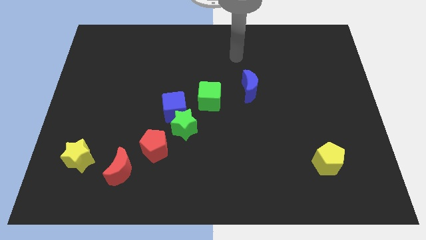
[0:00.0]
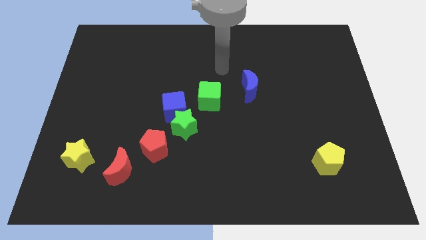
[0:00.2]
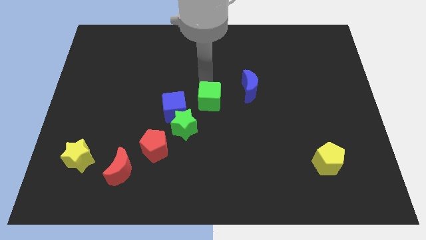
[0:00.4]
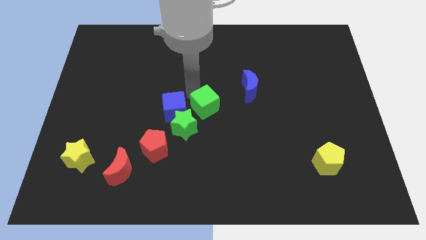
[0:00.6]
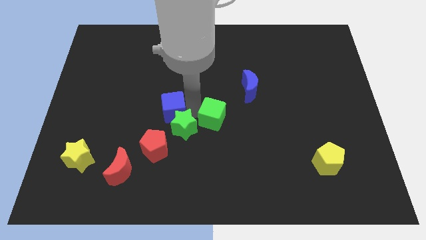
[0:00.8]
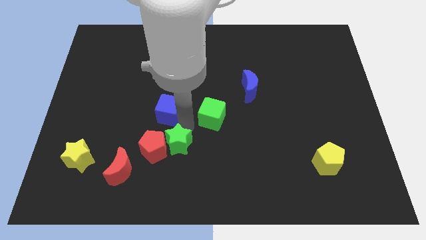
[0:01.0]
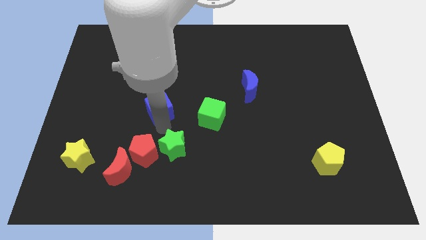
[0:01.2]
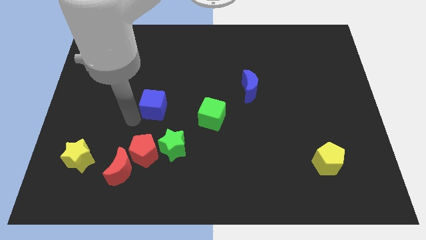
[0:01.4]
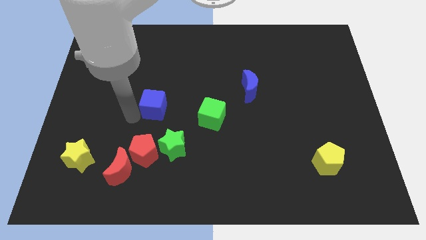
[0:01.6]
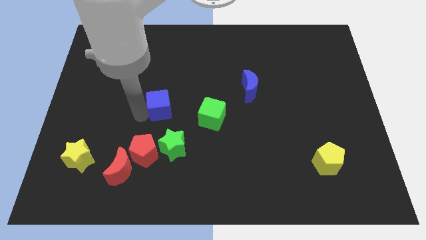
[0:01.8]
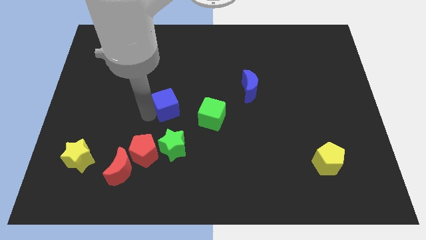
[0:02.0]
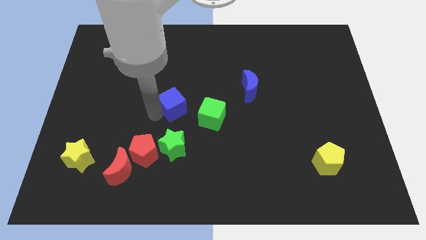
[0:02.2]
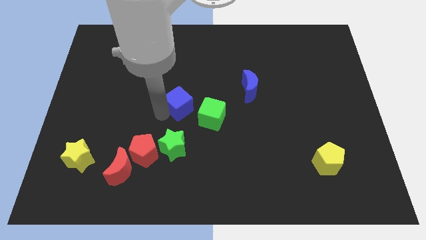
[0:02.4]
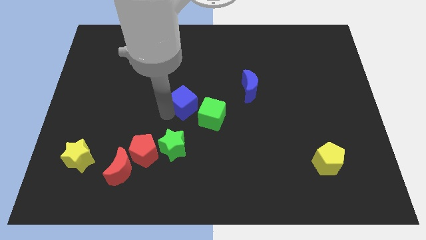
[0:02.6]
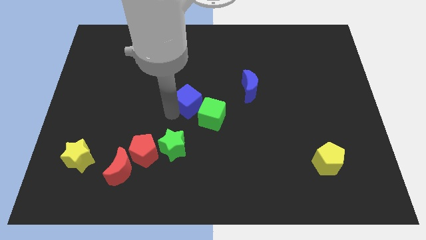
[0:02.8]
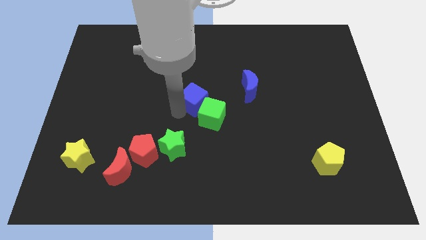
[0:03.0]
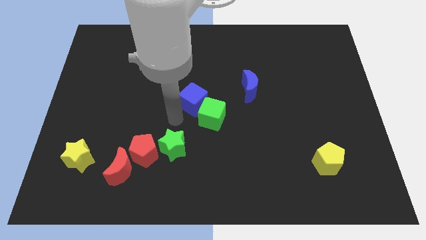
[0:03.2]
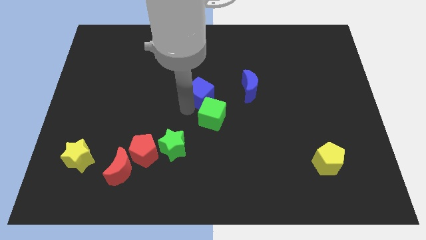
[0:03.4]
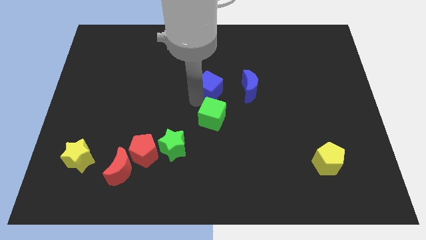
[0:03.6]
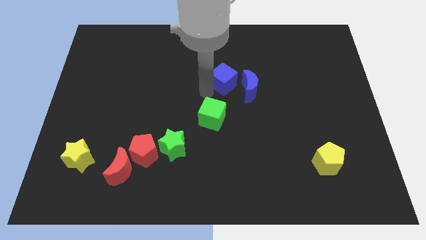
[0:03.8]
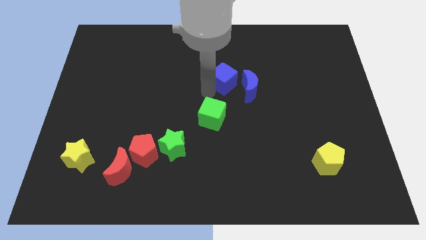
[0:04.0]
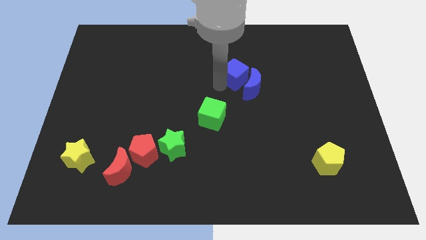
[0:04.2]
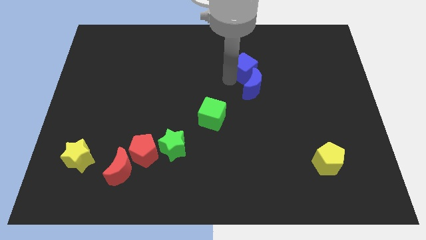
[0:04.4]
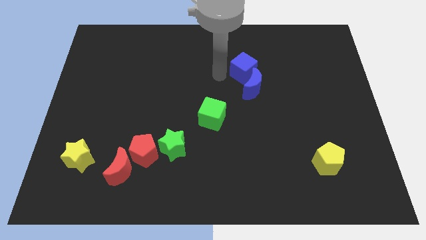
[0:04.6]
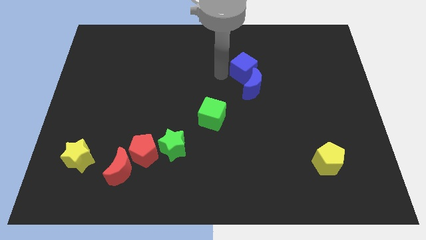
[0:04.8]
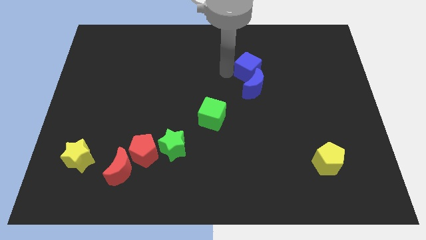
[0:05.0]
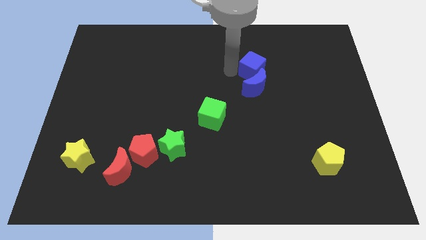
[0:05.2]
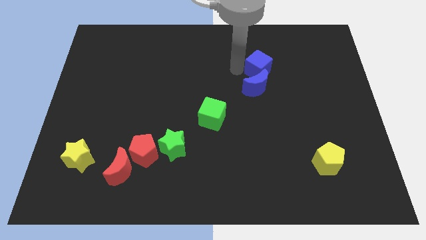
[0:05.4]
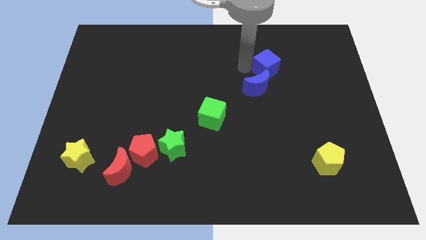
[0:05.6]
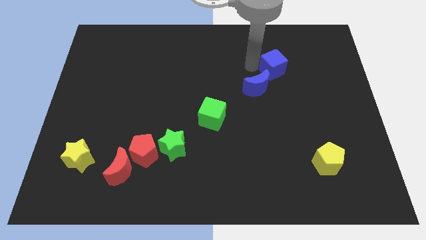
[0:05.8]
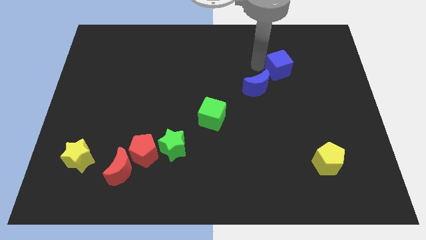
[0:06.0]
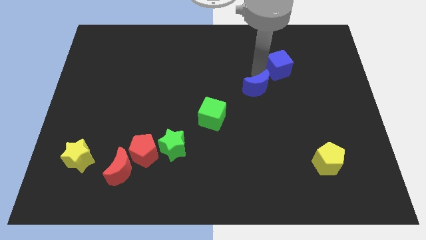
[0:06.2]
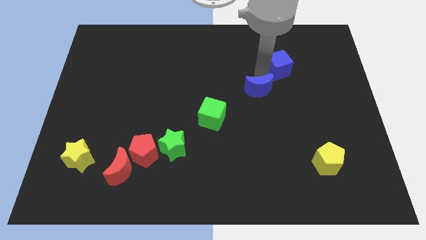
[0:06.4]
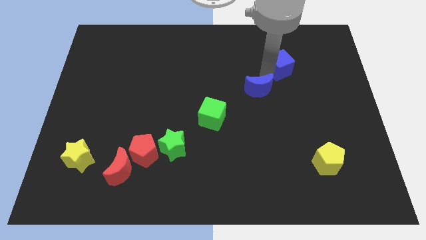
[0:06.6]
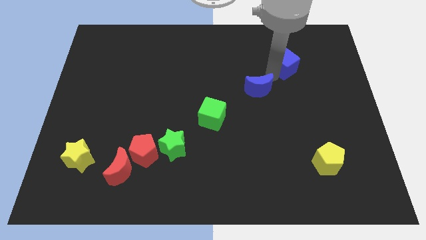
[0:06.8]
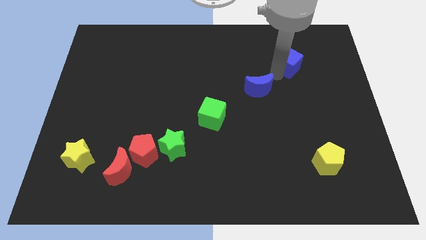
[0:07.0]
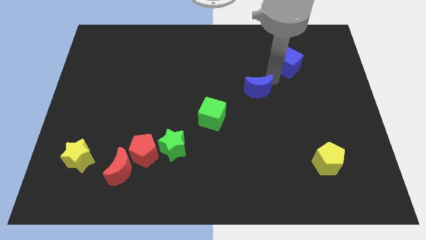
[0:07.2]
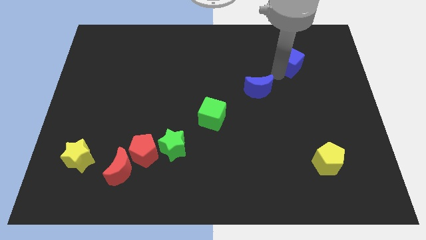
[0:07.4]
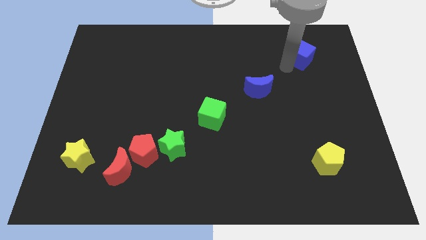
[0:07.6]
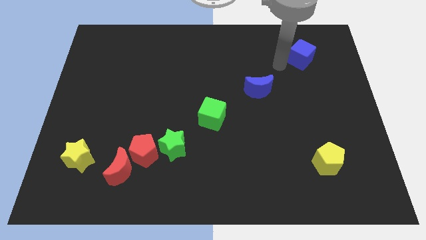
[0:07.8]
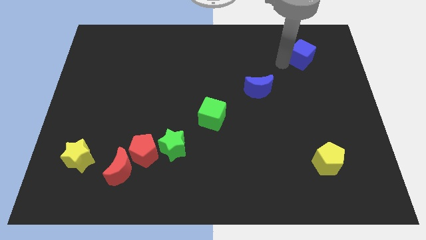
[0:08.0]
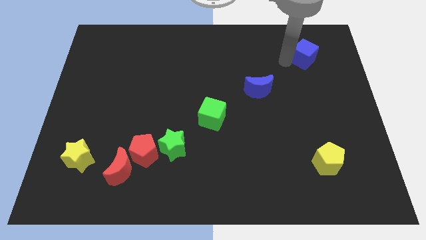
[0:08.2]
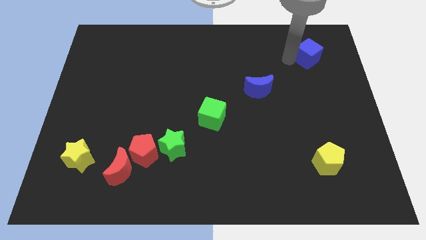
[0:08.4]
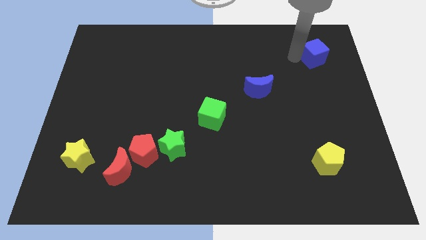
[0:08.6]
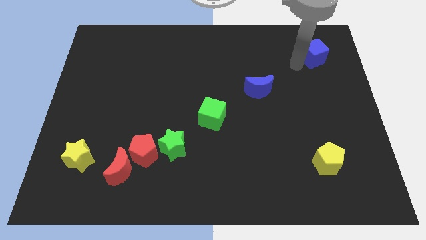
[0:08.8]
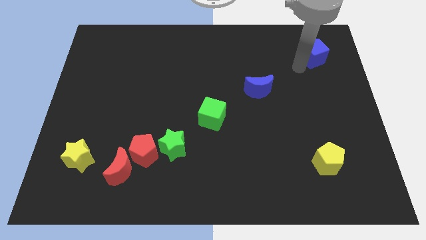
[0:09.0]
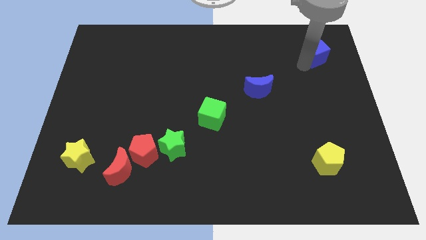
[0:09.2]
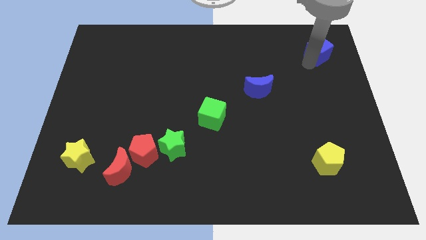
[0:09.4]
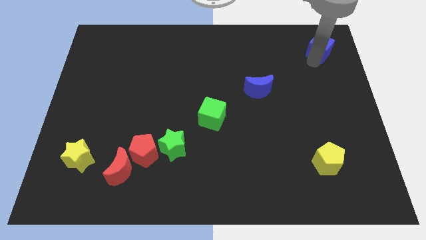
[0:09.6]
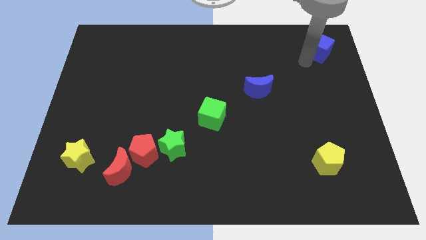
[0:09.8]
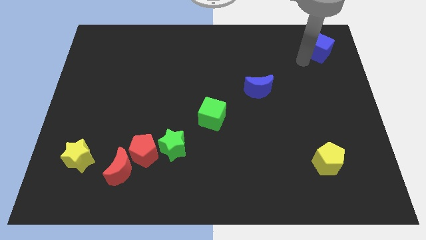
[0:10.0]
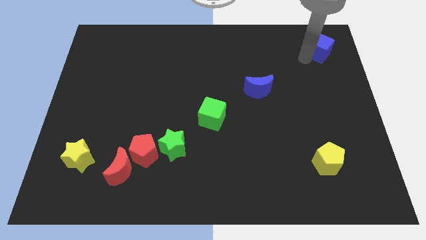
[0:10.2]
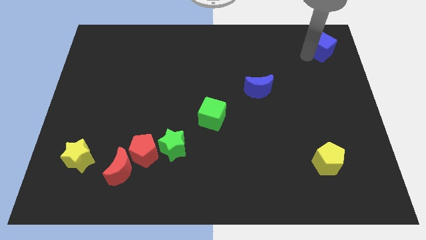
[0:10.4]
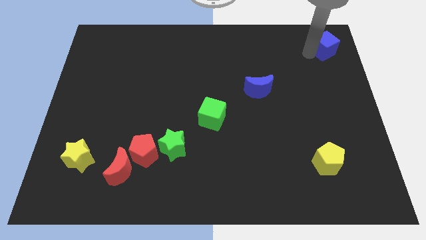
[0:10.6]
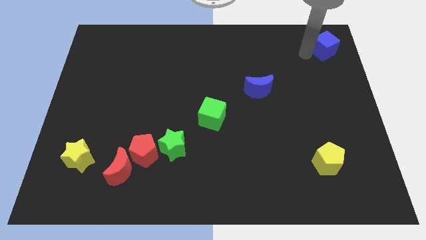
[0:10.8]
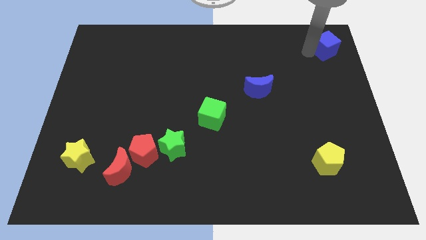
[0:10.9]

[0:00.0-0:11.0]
push the blue cube to the top right

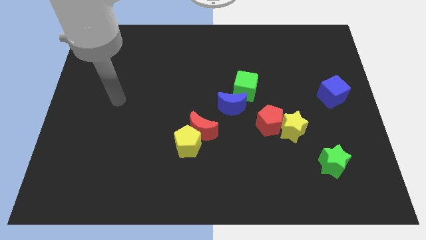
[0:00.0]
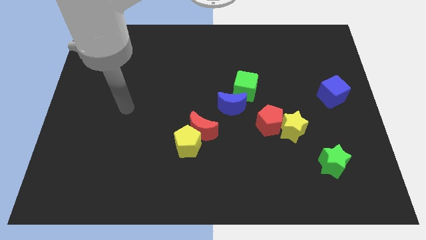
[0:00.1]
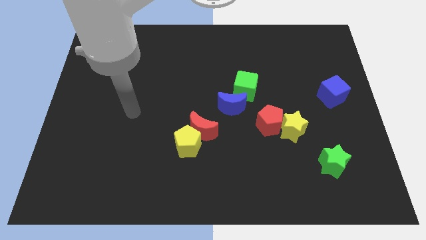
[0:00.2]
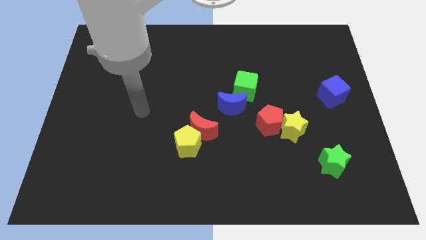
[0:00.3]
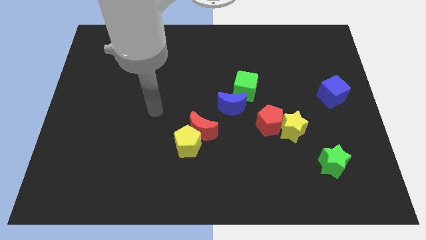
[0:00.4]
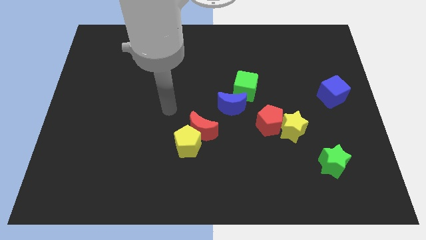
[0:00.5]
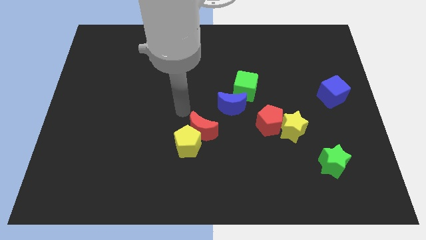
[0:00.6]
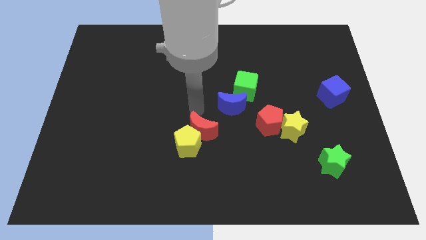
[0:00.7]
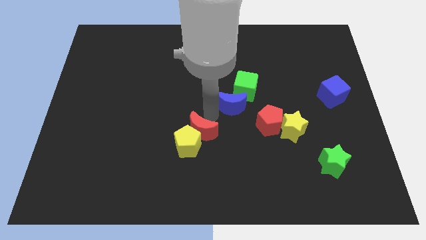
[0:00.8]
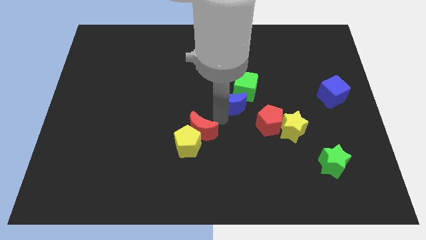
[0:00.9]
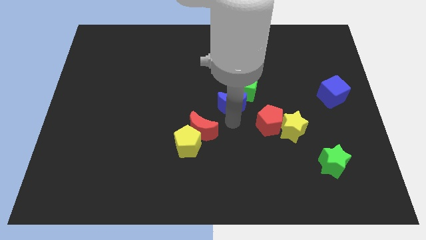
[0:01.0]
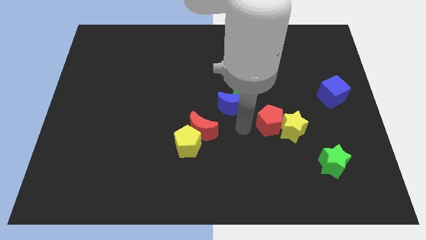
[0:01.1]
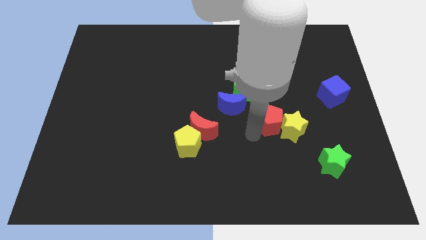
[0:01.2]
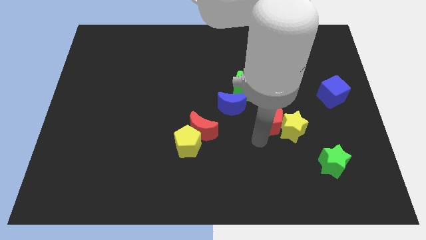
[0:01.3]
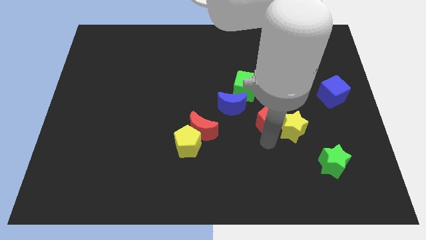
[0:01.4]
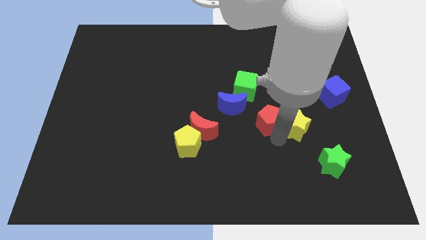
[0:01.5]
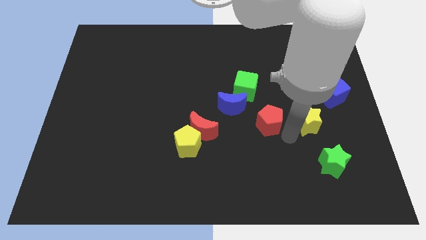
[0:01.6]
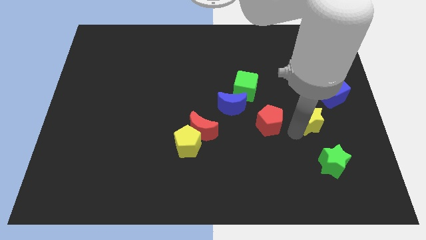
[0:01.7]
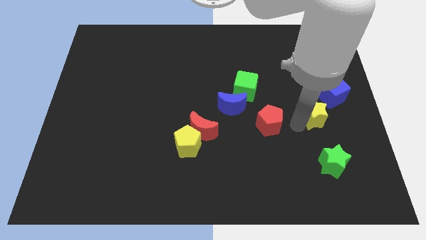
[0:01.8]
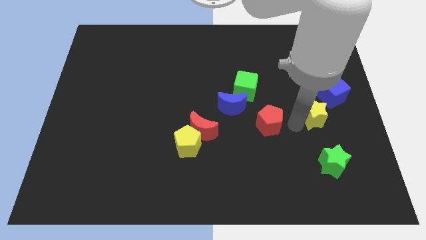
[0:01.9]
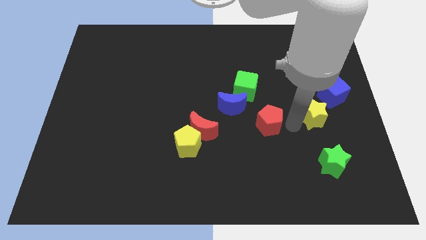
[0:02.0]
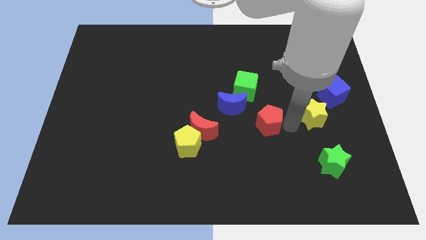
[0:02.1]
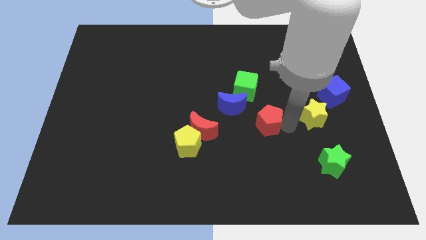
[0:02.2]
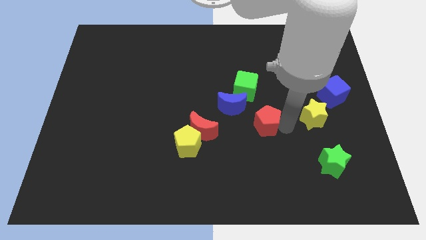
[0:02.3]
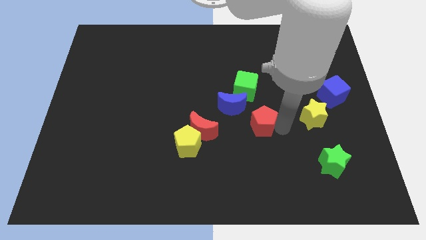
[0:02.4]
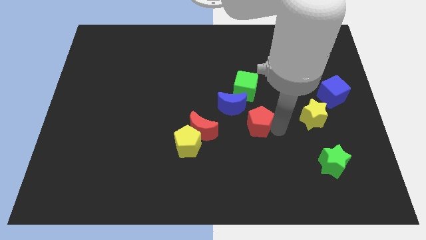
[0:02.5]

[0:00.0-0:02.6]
push the red pentagon to the middle of the board

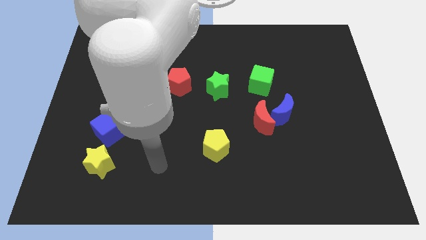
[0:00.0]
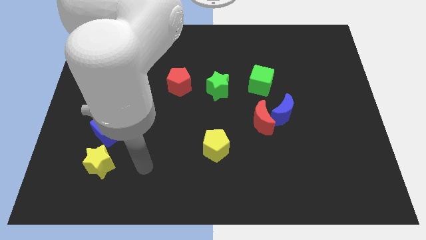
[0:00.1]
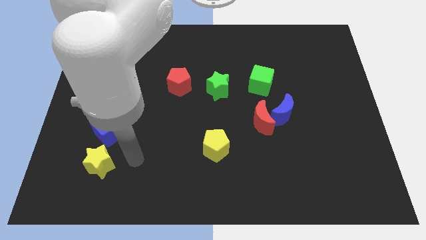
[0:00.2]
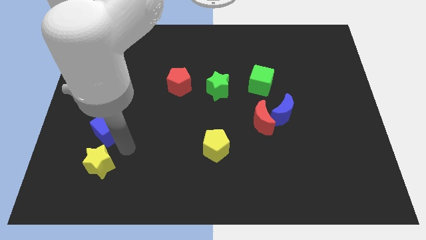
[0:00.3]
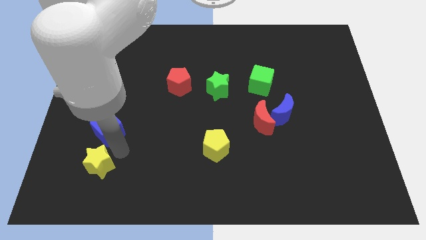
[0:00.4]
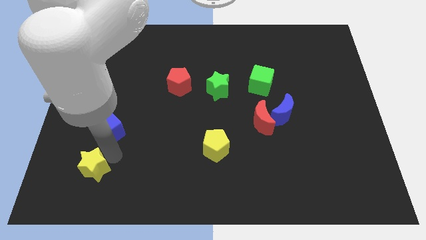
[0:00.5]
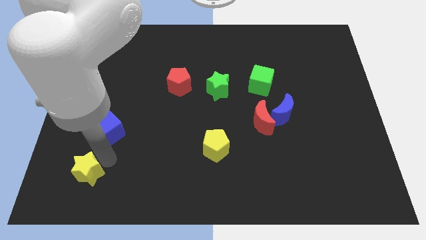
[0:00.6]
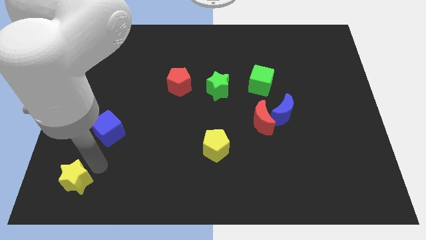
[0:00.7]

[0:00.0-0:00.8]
push the yellow star to the bottom left corner
